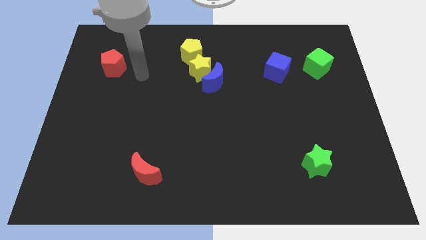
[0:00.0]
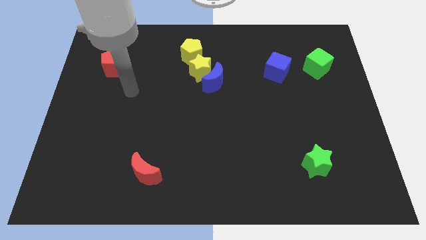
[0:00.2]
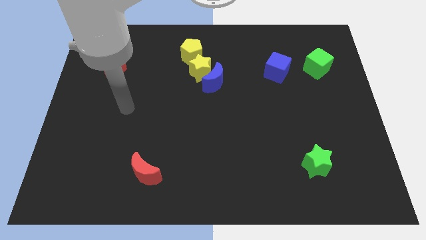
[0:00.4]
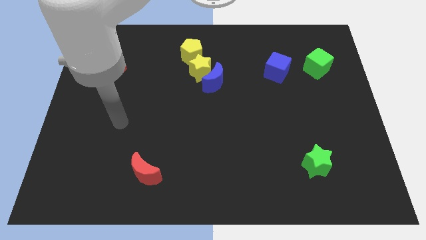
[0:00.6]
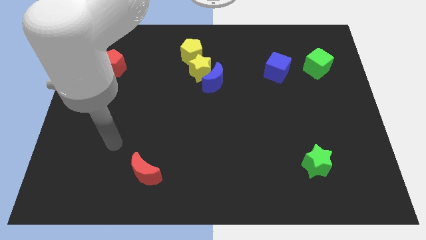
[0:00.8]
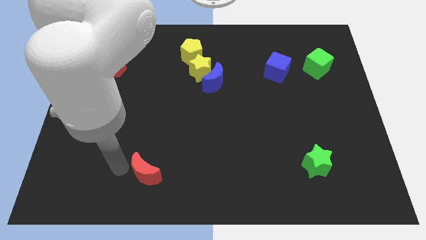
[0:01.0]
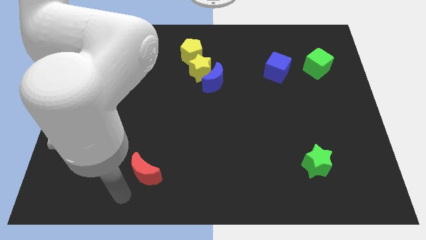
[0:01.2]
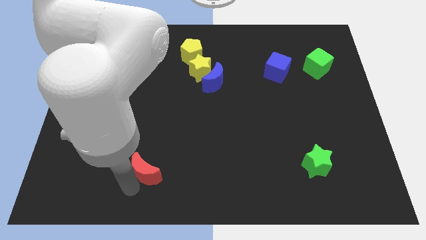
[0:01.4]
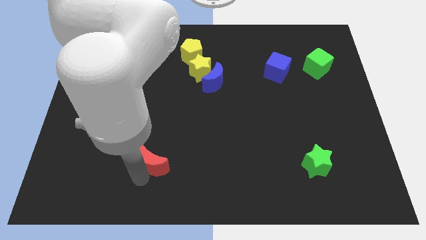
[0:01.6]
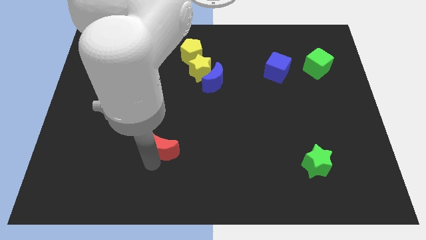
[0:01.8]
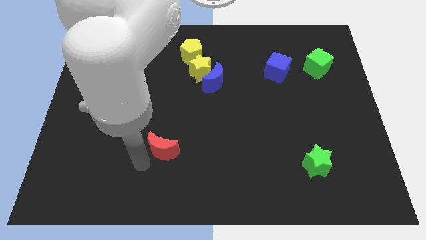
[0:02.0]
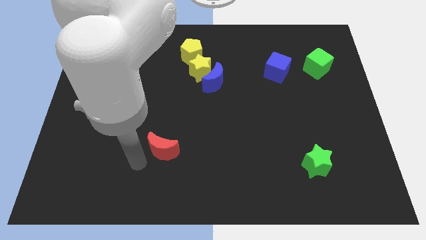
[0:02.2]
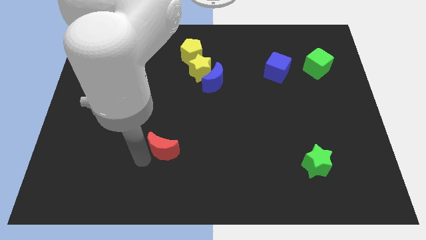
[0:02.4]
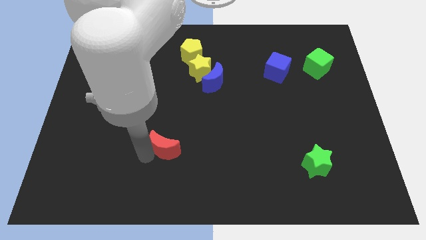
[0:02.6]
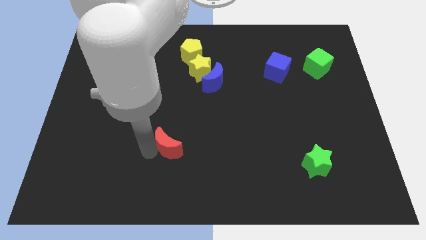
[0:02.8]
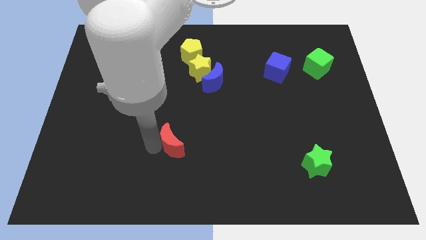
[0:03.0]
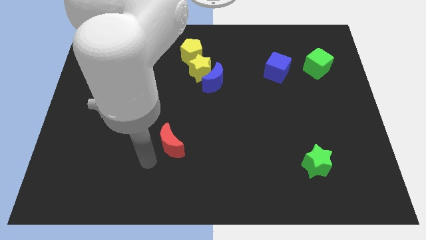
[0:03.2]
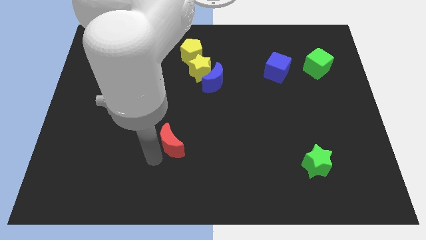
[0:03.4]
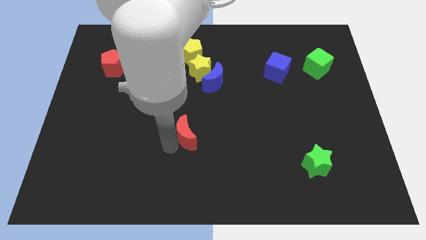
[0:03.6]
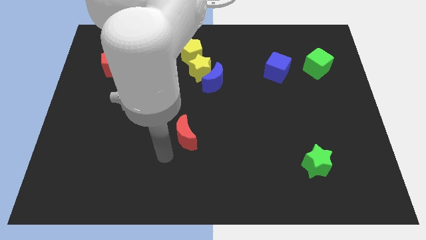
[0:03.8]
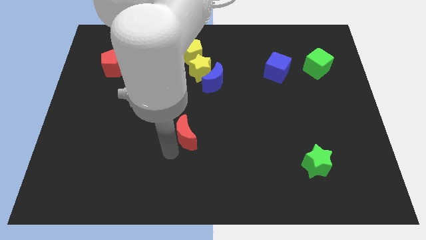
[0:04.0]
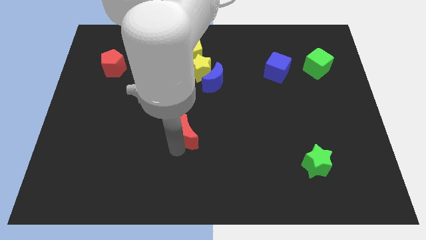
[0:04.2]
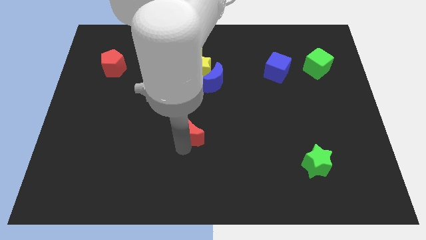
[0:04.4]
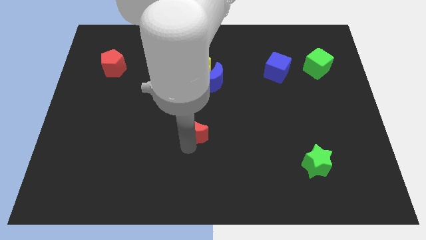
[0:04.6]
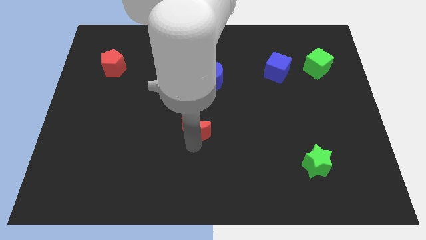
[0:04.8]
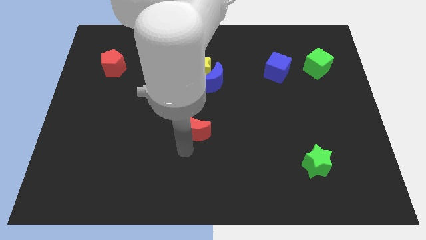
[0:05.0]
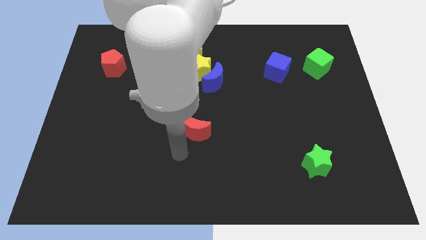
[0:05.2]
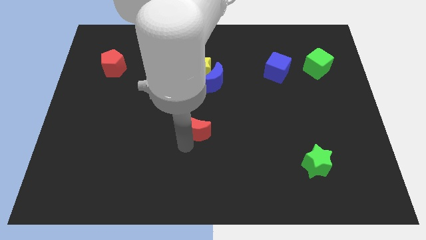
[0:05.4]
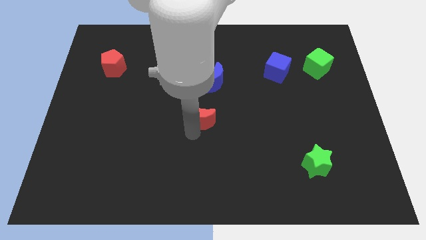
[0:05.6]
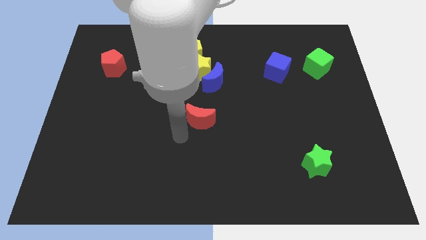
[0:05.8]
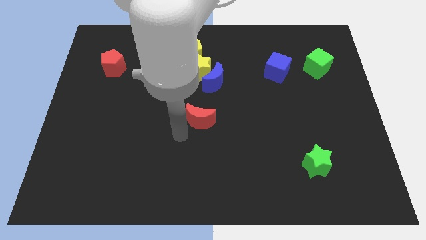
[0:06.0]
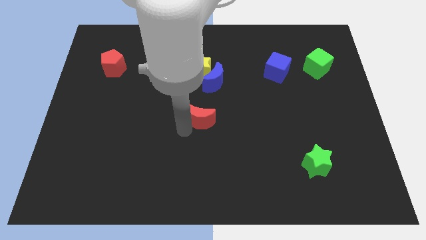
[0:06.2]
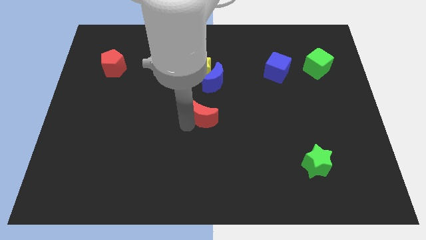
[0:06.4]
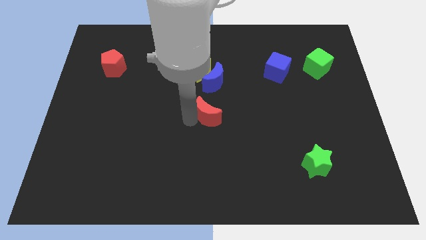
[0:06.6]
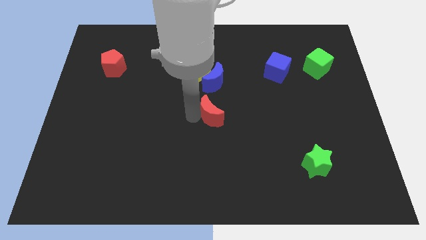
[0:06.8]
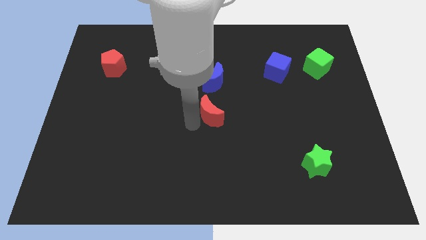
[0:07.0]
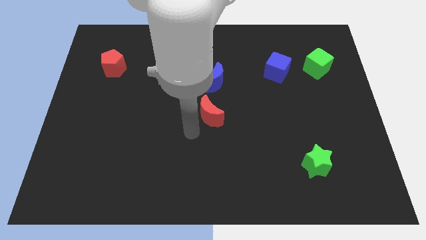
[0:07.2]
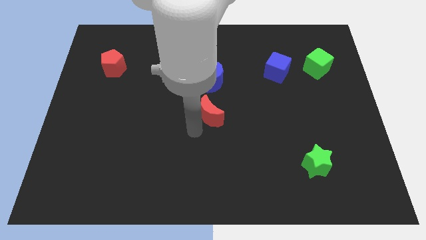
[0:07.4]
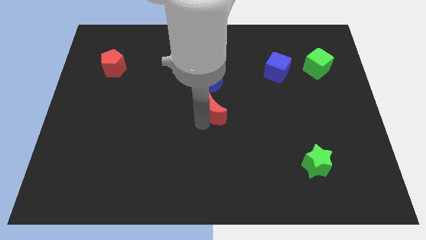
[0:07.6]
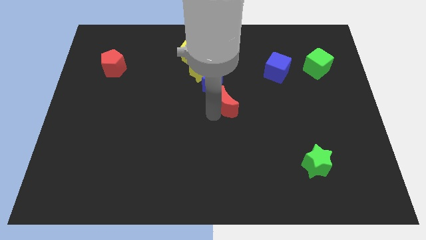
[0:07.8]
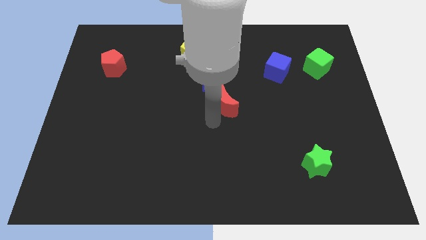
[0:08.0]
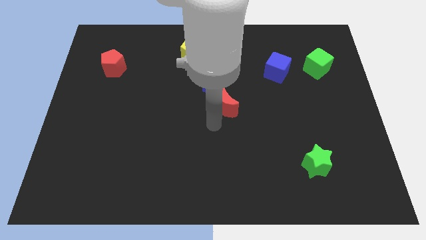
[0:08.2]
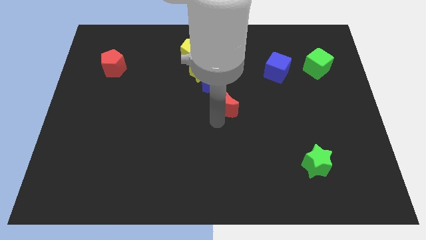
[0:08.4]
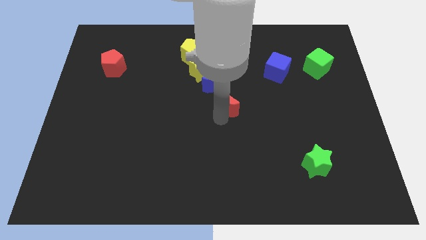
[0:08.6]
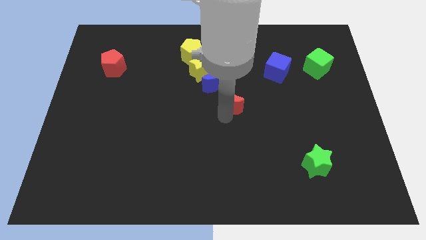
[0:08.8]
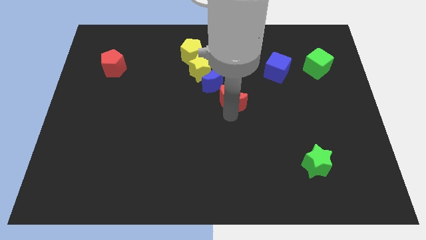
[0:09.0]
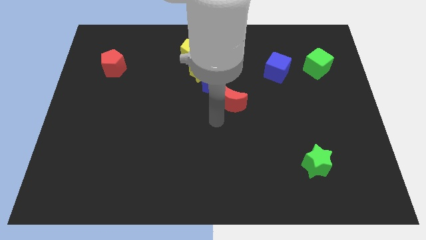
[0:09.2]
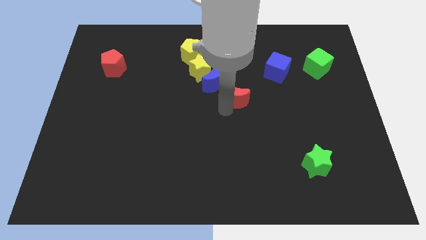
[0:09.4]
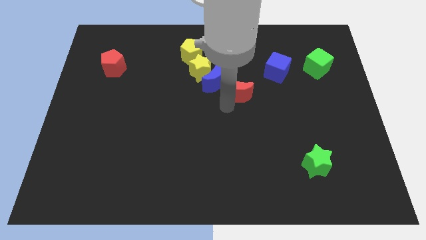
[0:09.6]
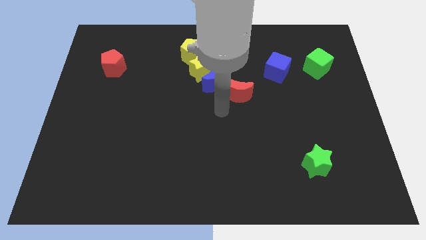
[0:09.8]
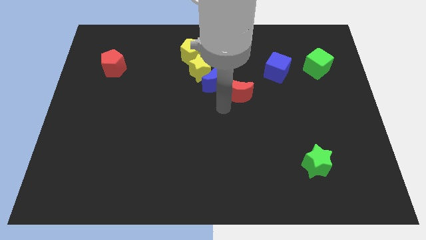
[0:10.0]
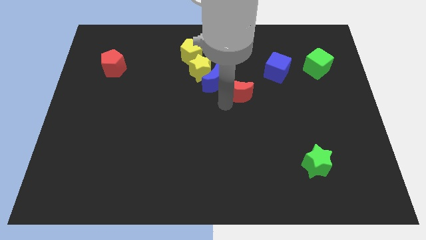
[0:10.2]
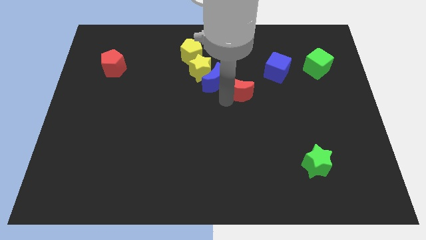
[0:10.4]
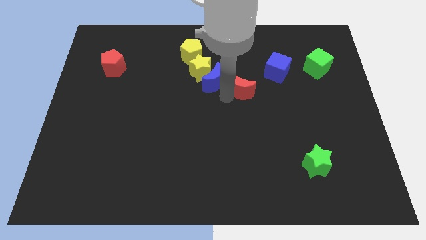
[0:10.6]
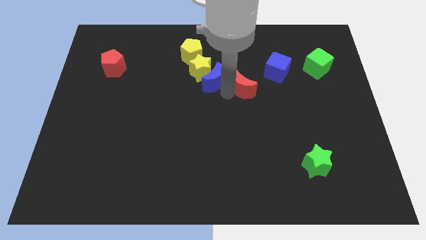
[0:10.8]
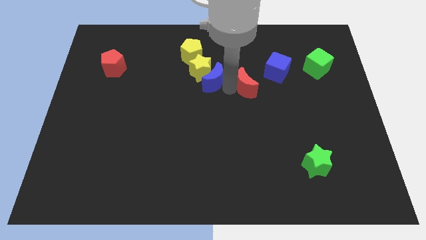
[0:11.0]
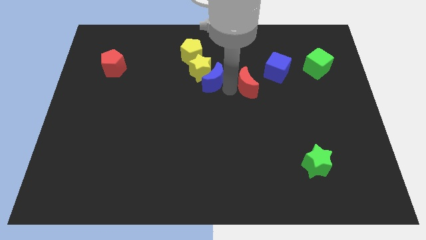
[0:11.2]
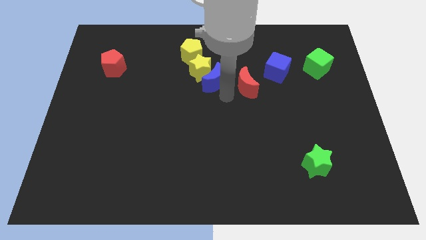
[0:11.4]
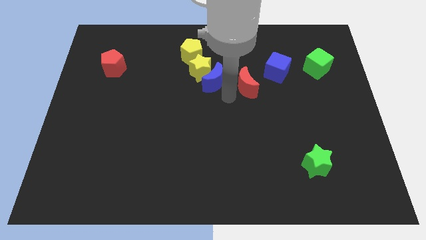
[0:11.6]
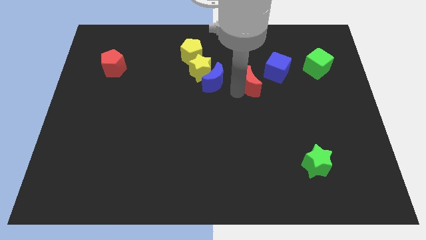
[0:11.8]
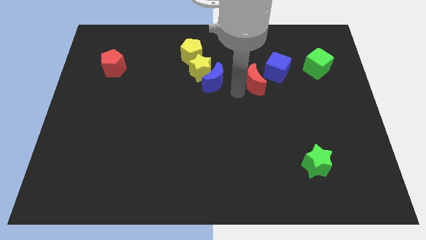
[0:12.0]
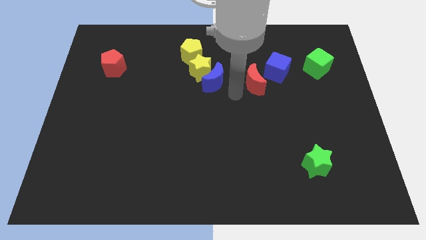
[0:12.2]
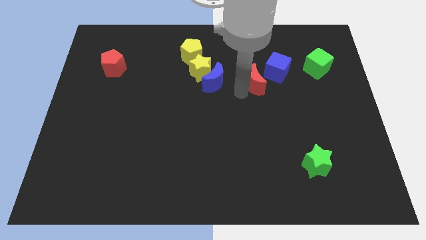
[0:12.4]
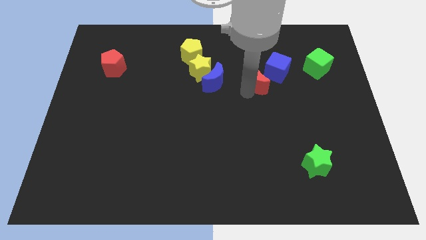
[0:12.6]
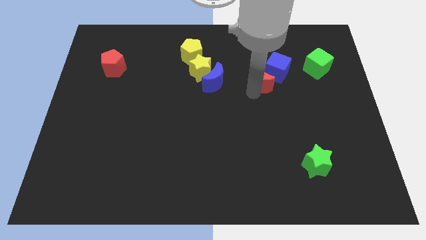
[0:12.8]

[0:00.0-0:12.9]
put the red moon next to the blue cube
